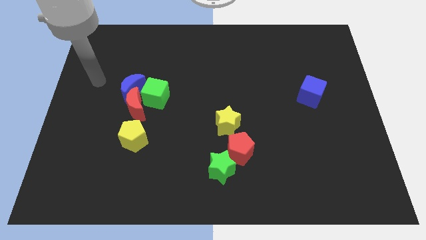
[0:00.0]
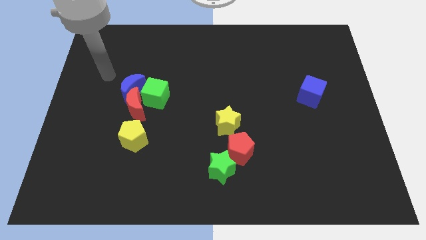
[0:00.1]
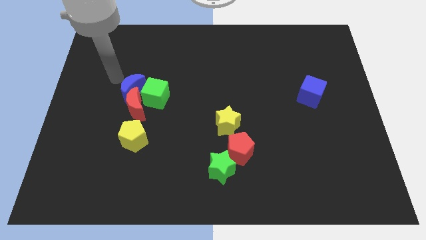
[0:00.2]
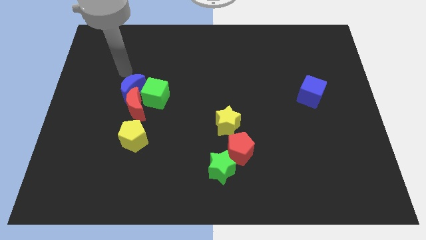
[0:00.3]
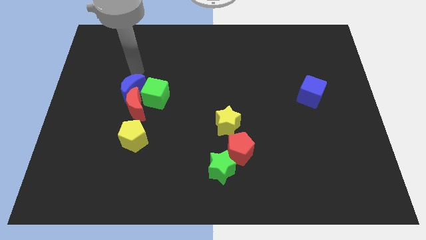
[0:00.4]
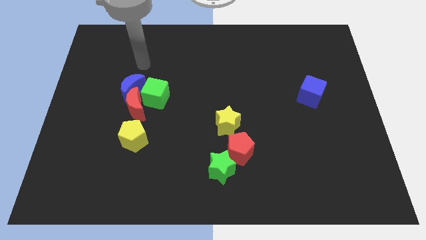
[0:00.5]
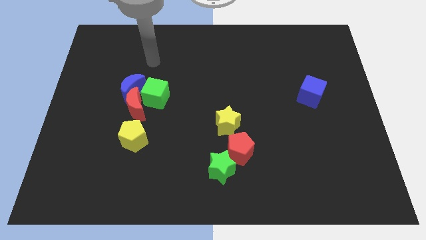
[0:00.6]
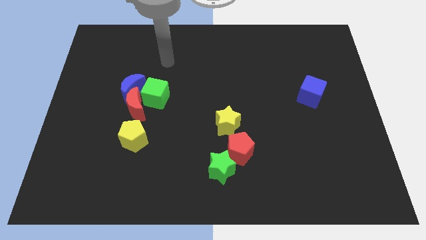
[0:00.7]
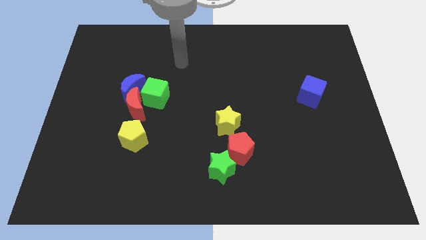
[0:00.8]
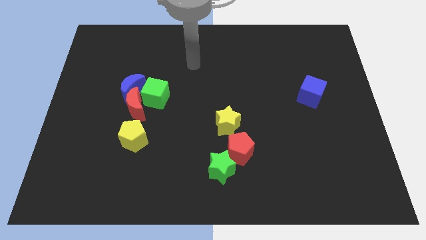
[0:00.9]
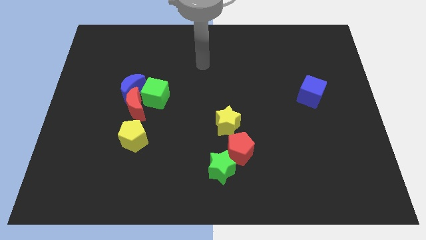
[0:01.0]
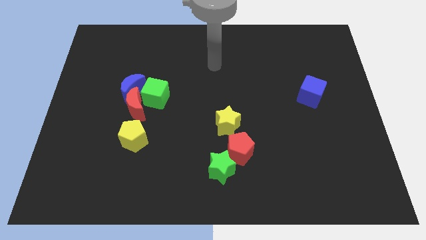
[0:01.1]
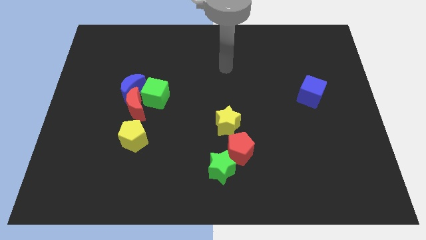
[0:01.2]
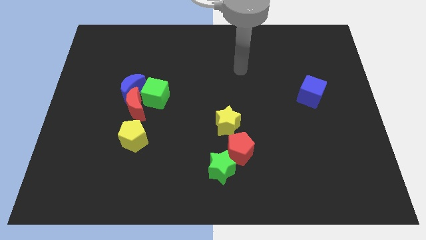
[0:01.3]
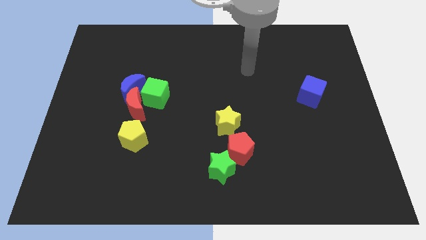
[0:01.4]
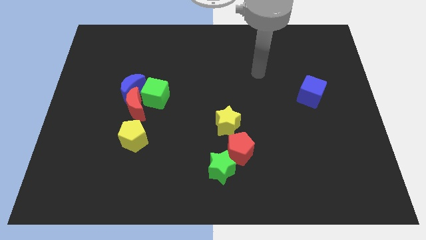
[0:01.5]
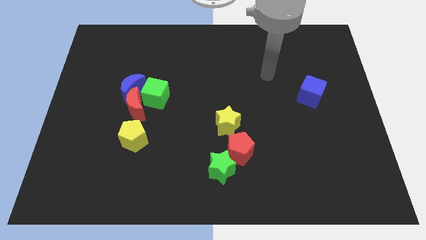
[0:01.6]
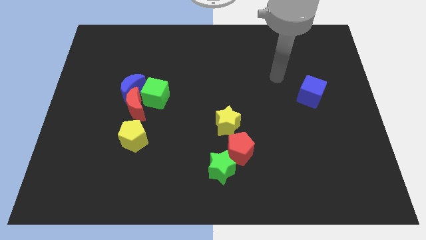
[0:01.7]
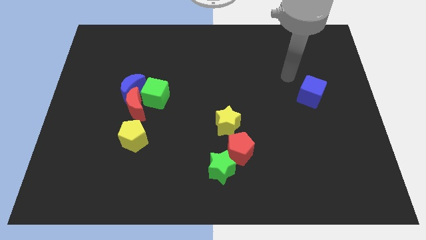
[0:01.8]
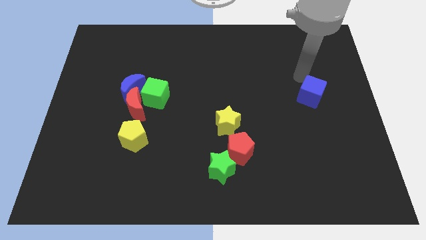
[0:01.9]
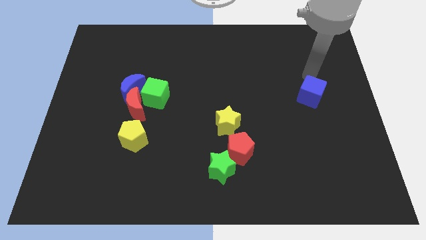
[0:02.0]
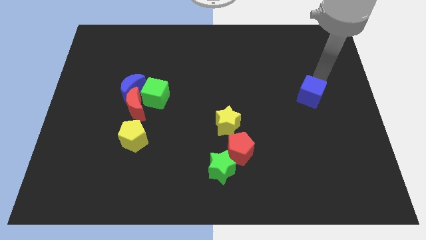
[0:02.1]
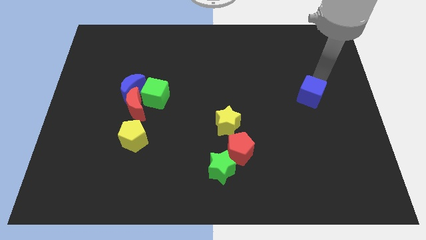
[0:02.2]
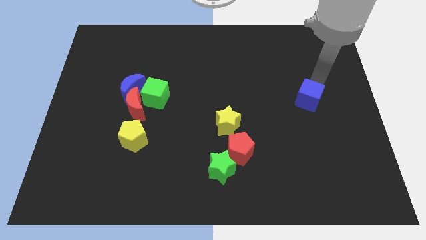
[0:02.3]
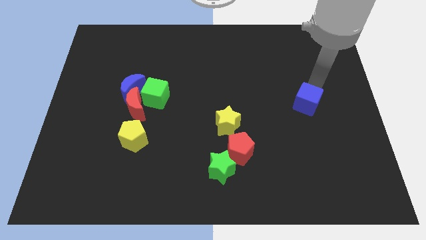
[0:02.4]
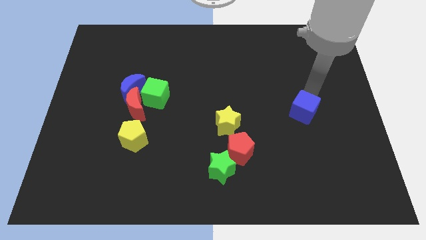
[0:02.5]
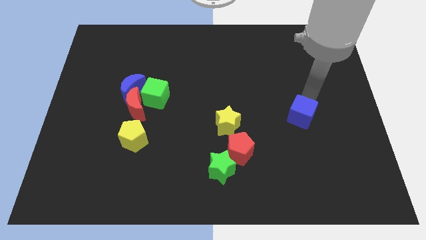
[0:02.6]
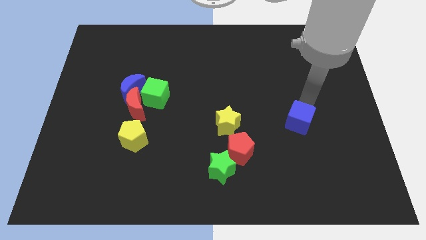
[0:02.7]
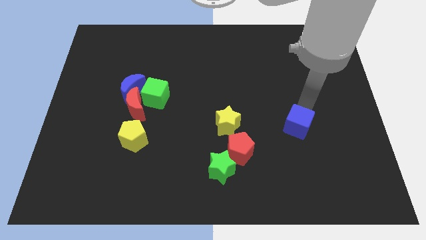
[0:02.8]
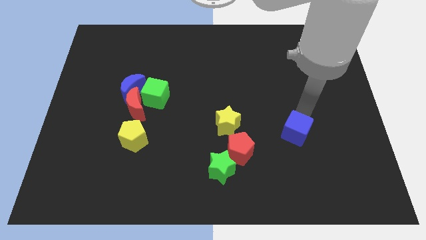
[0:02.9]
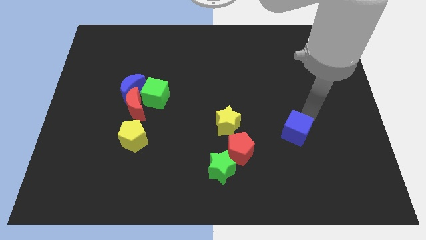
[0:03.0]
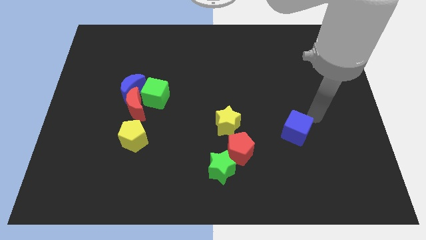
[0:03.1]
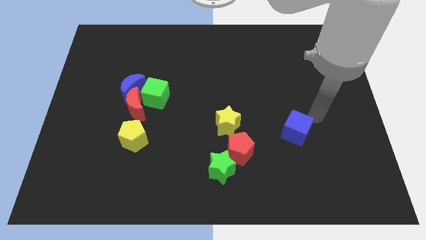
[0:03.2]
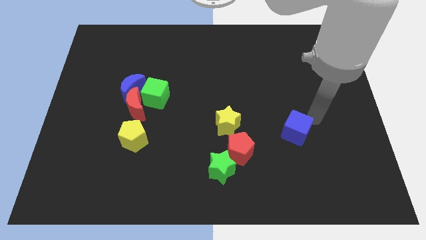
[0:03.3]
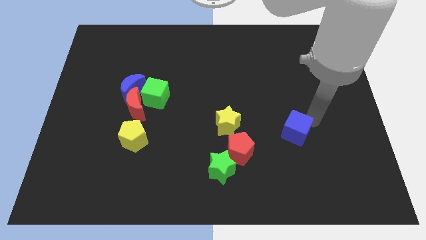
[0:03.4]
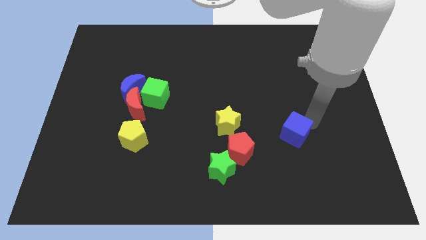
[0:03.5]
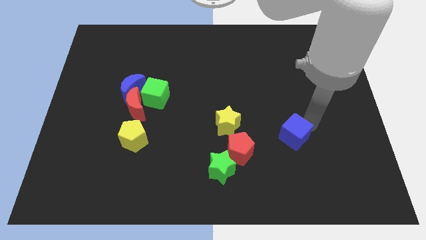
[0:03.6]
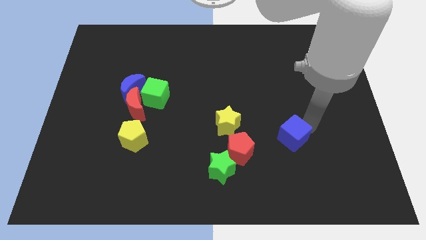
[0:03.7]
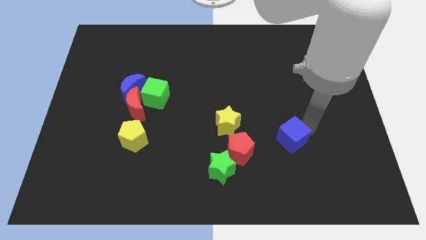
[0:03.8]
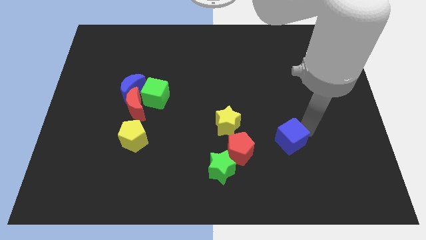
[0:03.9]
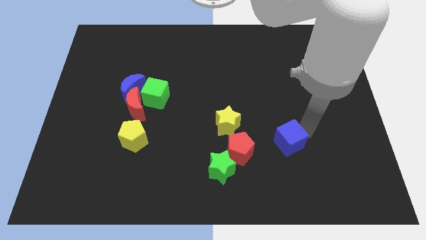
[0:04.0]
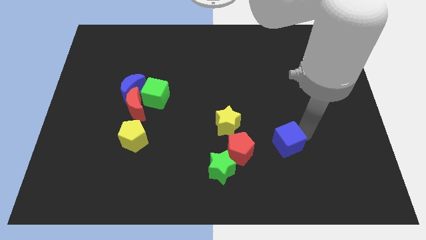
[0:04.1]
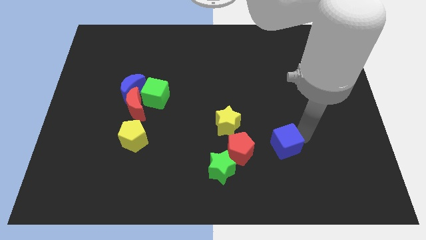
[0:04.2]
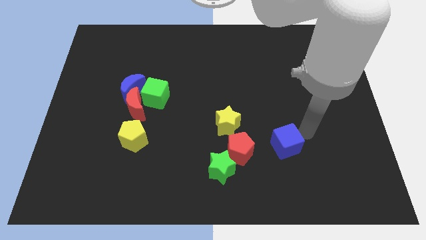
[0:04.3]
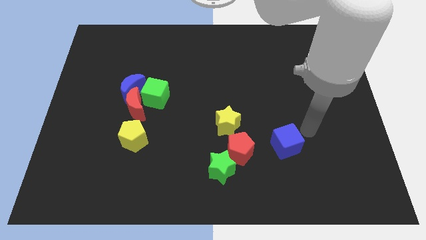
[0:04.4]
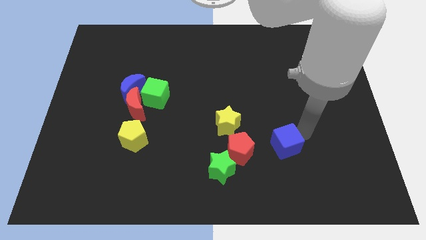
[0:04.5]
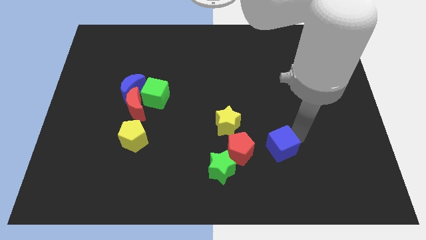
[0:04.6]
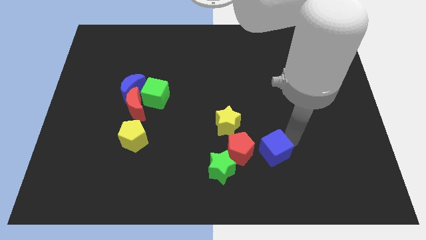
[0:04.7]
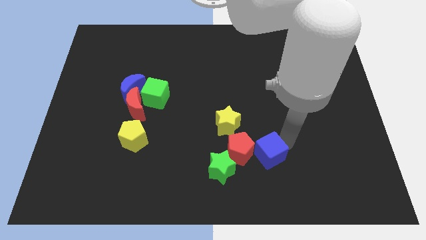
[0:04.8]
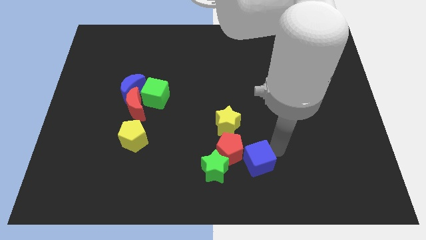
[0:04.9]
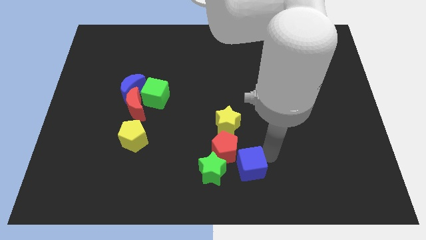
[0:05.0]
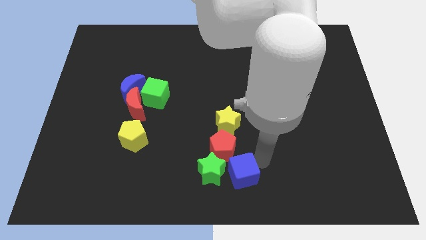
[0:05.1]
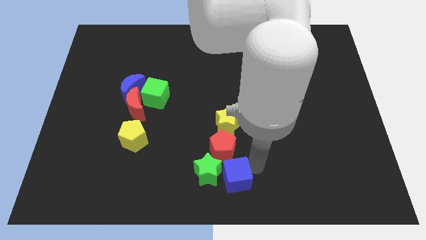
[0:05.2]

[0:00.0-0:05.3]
slide the blue cube towards the green star

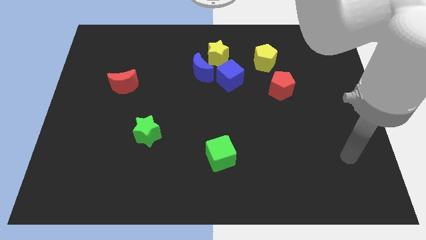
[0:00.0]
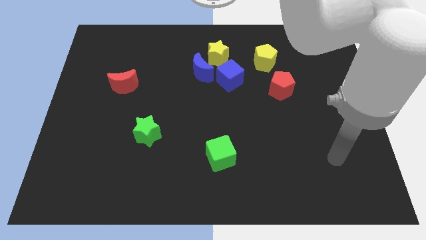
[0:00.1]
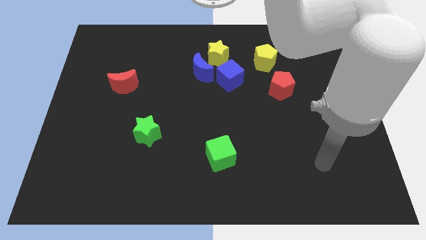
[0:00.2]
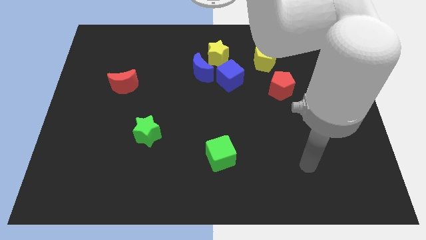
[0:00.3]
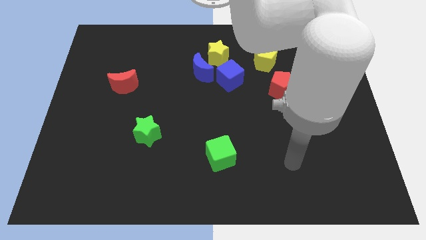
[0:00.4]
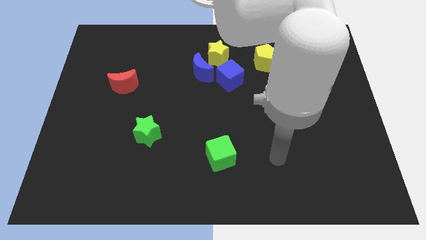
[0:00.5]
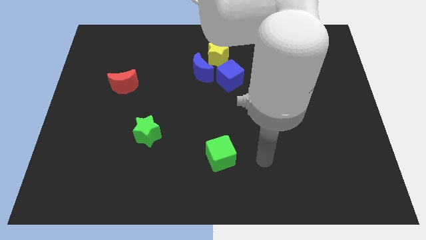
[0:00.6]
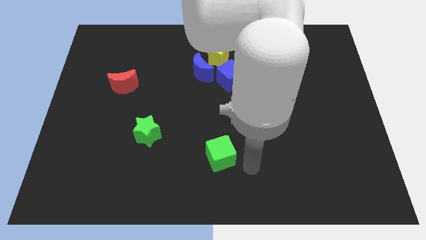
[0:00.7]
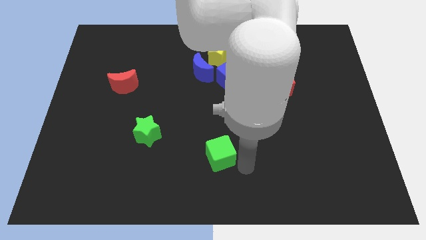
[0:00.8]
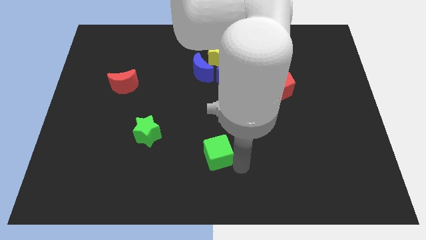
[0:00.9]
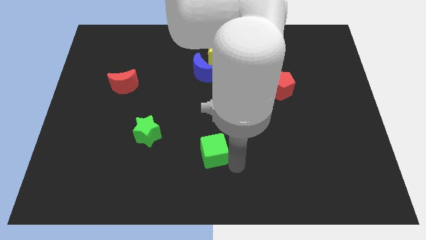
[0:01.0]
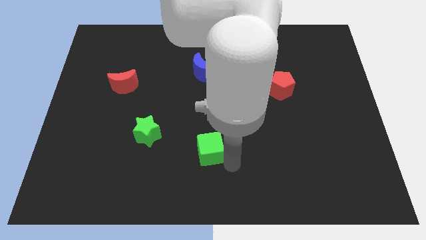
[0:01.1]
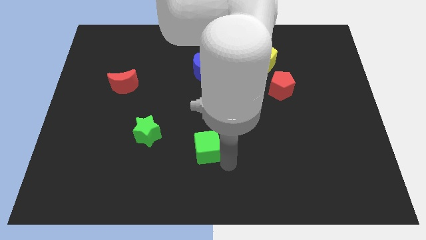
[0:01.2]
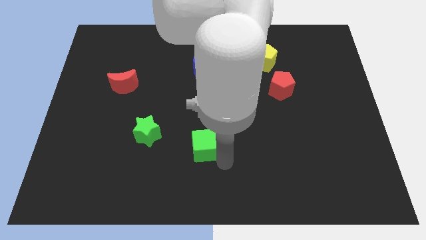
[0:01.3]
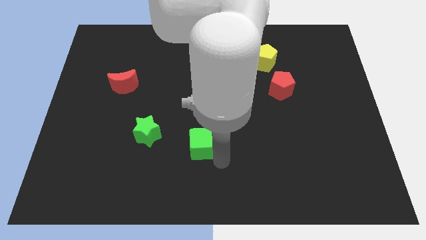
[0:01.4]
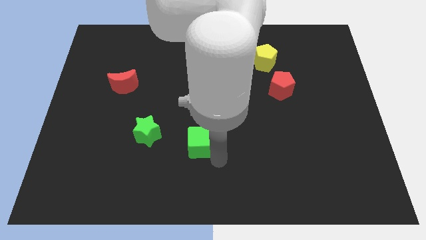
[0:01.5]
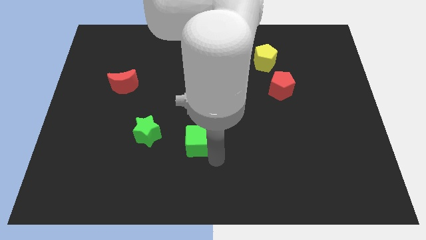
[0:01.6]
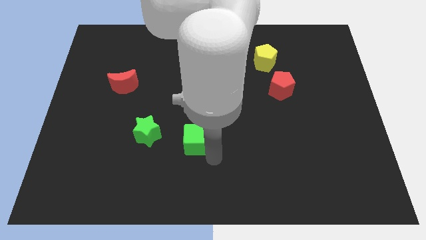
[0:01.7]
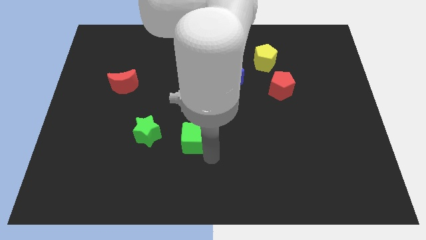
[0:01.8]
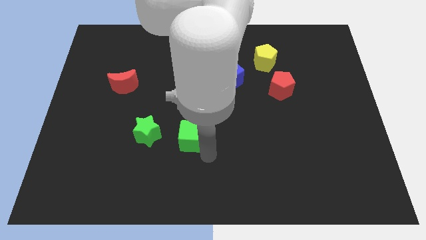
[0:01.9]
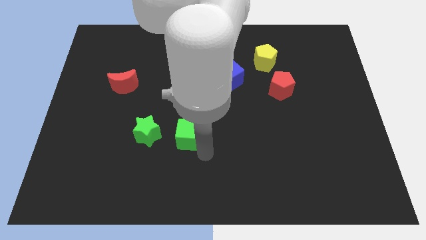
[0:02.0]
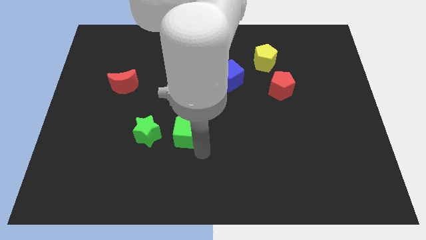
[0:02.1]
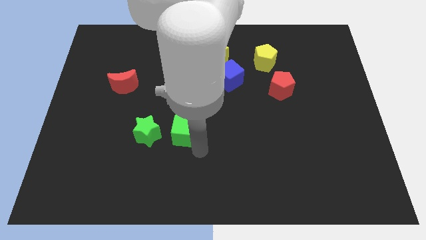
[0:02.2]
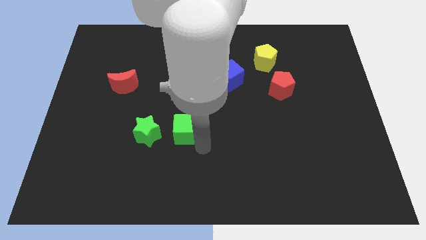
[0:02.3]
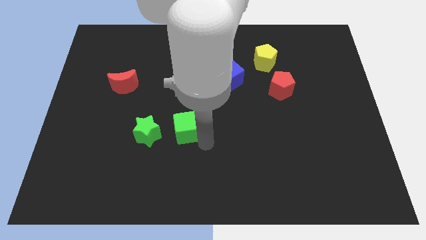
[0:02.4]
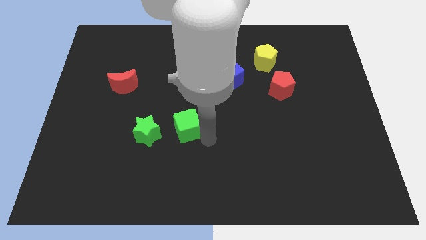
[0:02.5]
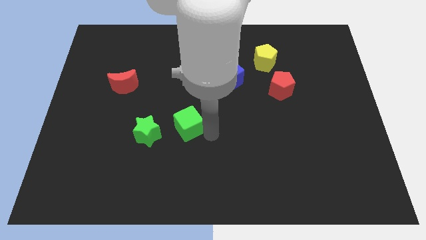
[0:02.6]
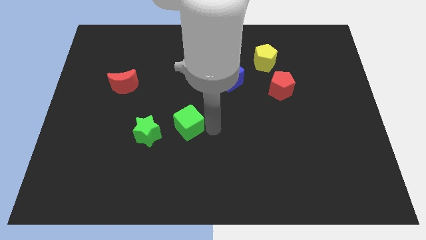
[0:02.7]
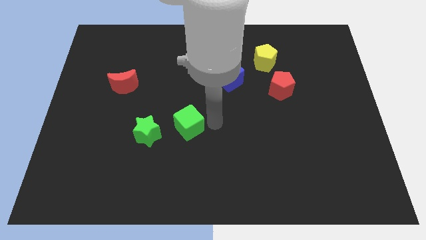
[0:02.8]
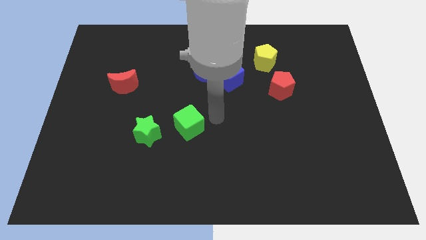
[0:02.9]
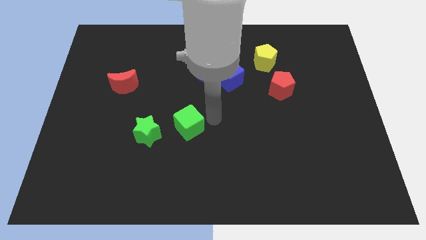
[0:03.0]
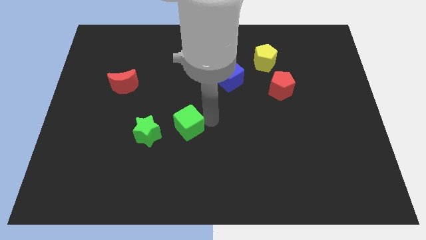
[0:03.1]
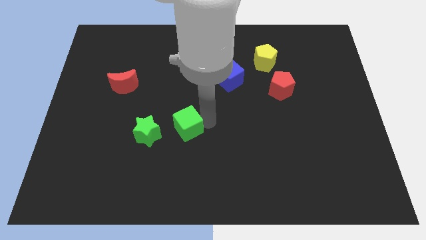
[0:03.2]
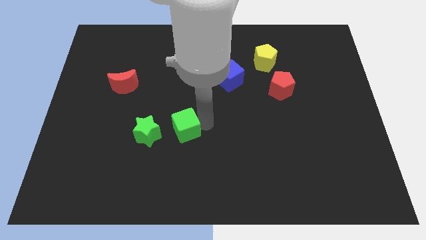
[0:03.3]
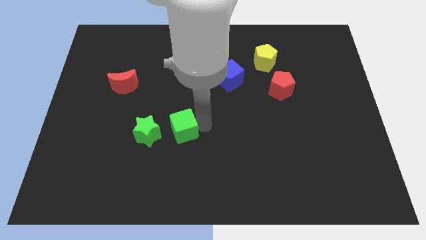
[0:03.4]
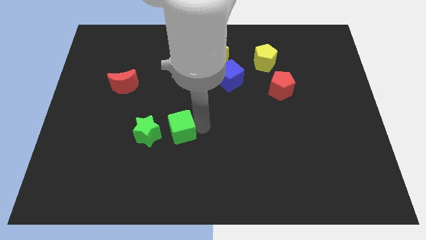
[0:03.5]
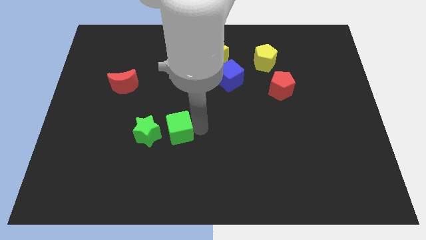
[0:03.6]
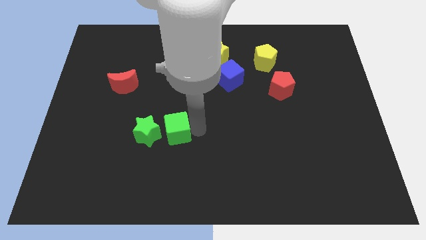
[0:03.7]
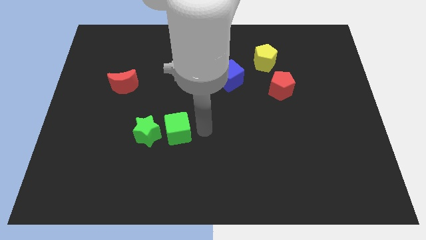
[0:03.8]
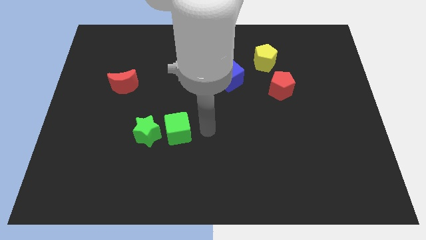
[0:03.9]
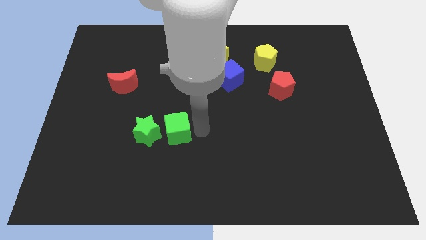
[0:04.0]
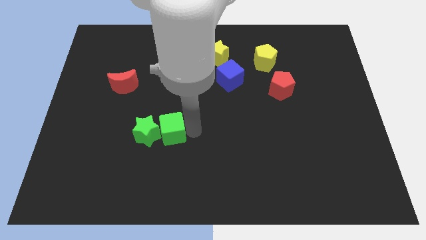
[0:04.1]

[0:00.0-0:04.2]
move the green cube to the green star
